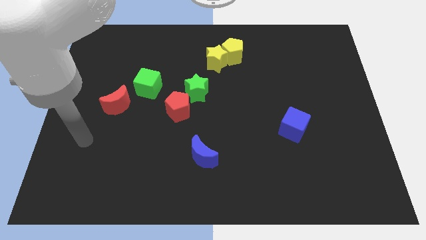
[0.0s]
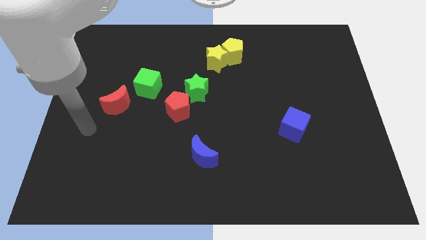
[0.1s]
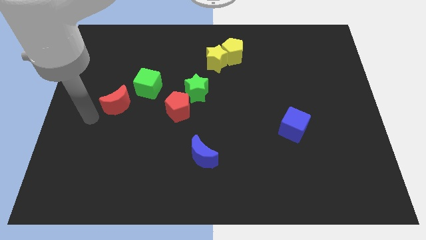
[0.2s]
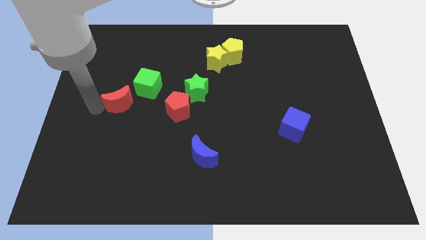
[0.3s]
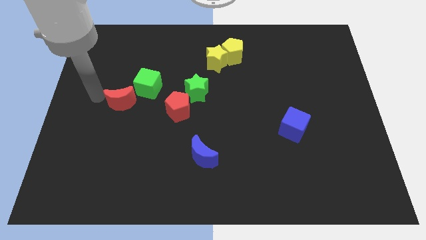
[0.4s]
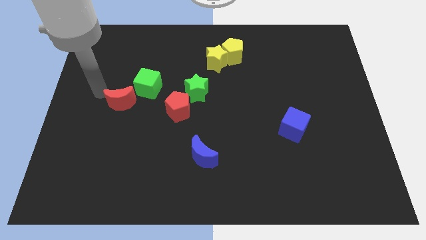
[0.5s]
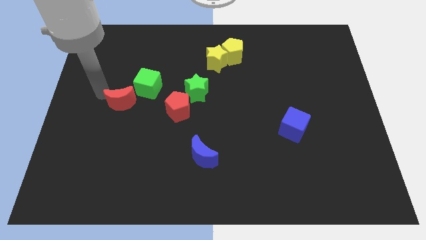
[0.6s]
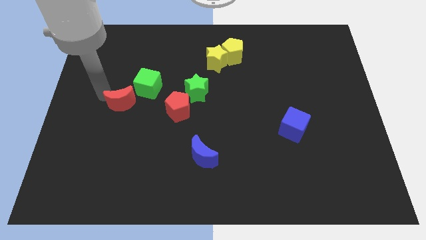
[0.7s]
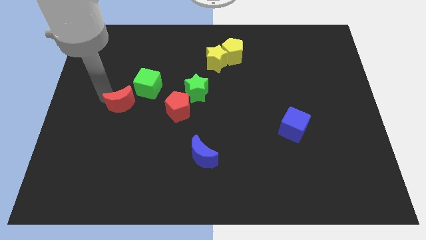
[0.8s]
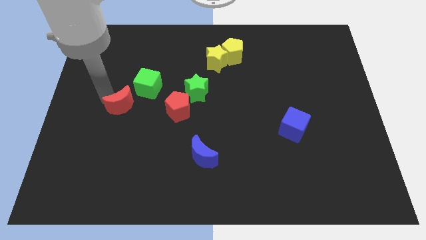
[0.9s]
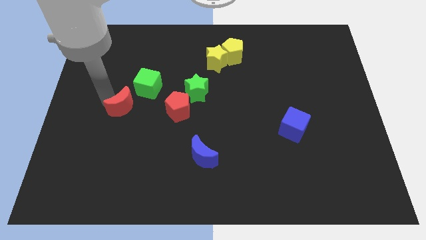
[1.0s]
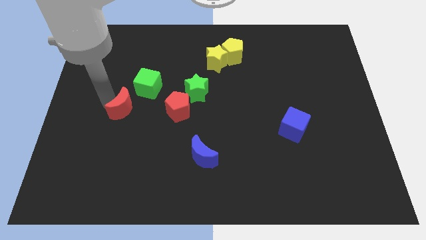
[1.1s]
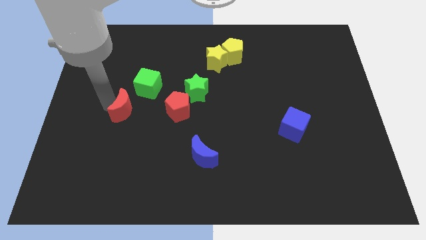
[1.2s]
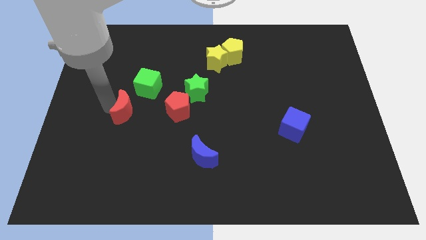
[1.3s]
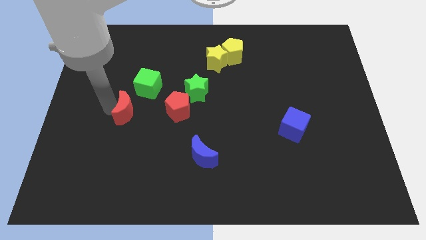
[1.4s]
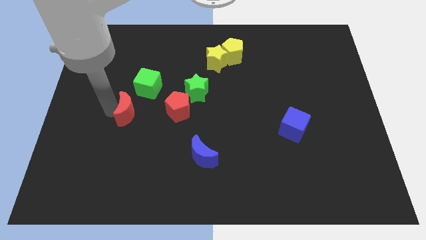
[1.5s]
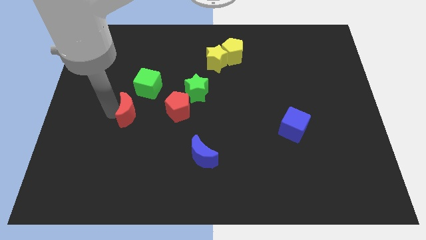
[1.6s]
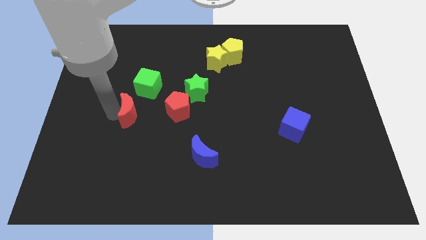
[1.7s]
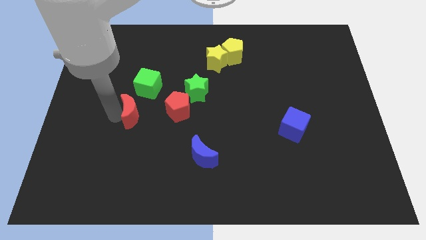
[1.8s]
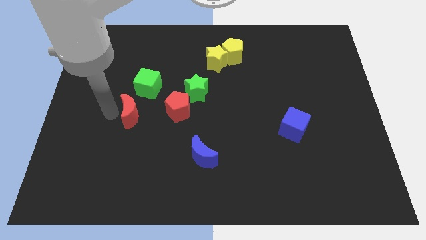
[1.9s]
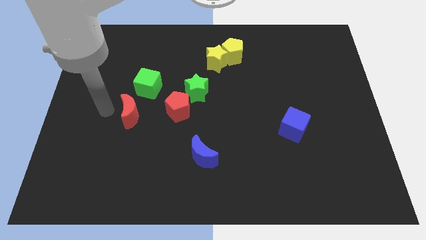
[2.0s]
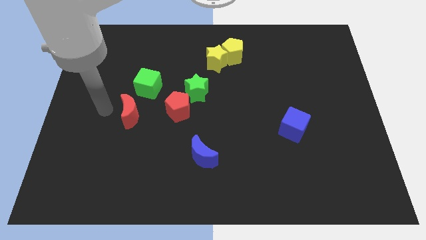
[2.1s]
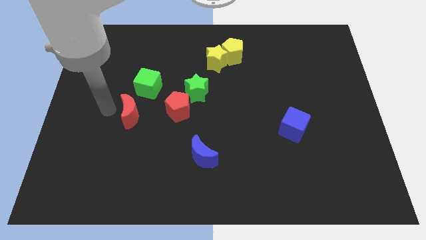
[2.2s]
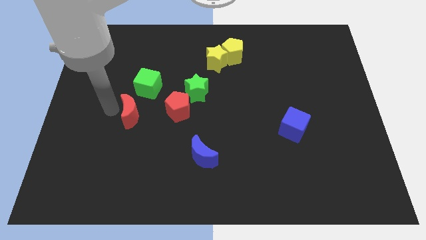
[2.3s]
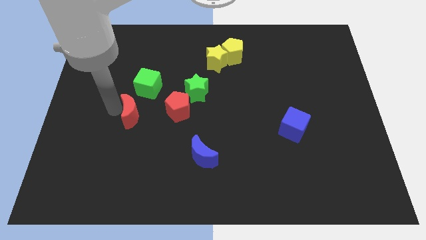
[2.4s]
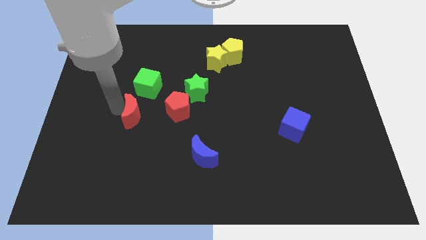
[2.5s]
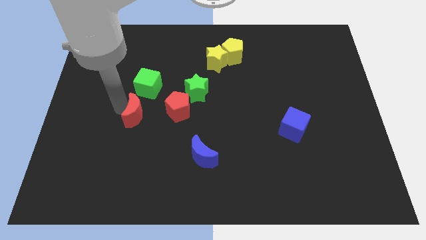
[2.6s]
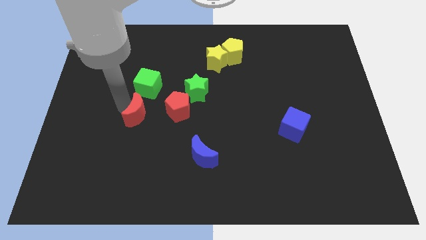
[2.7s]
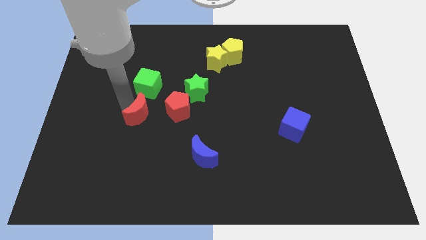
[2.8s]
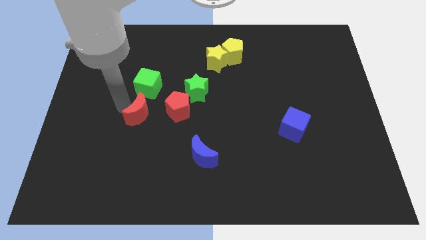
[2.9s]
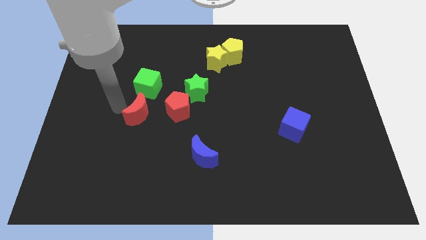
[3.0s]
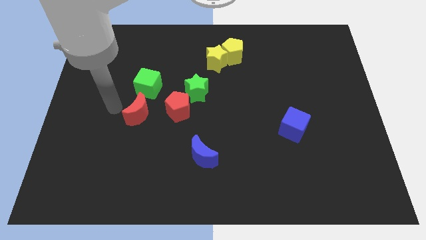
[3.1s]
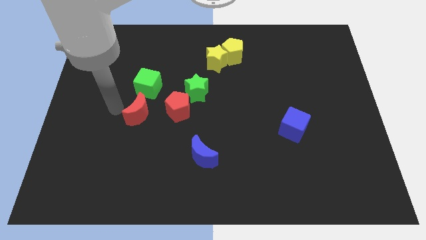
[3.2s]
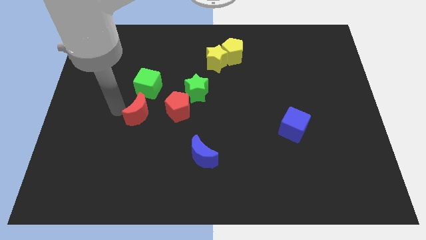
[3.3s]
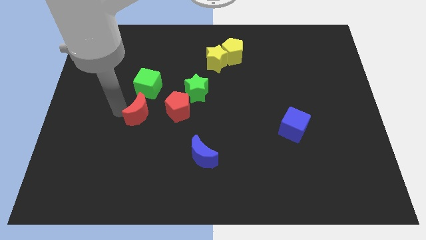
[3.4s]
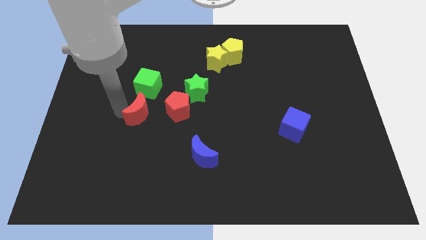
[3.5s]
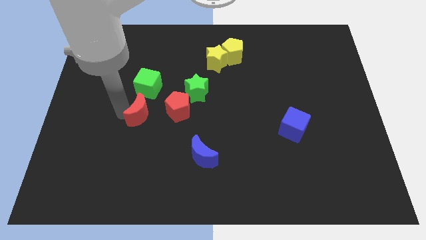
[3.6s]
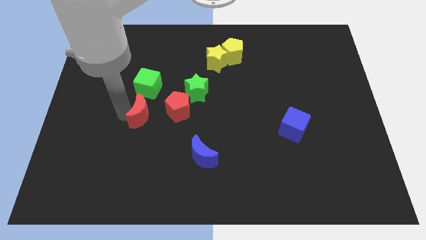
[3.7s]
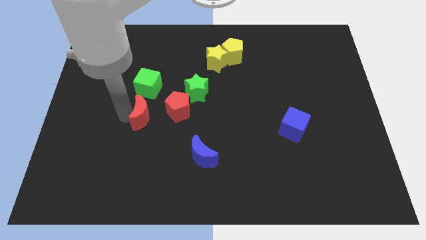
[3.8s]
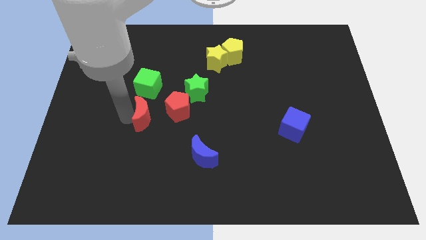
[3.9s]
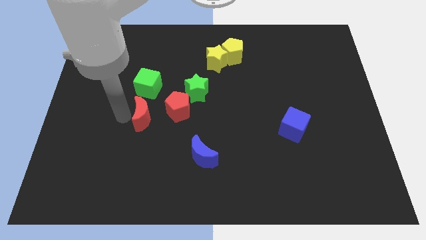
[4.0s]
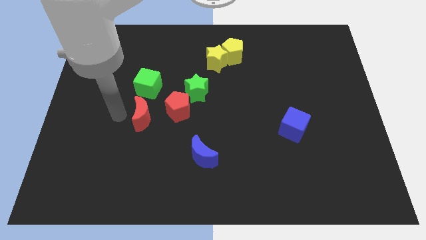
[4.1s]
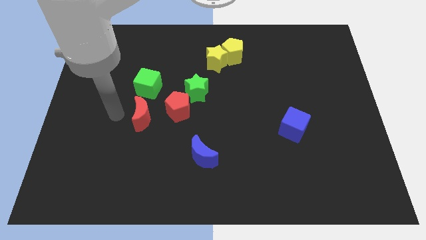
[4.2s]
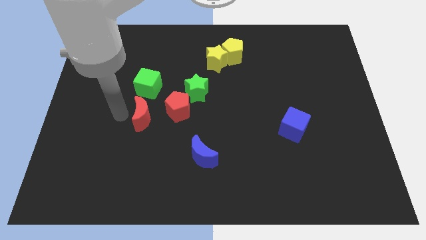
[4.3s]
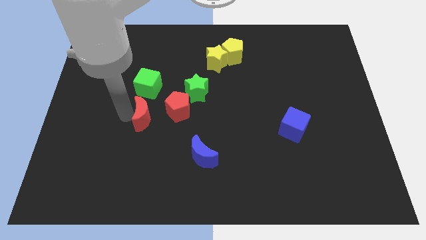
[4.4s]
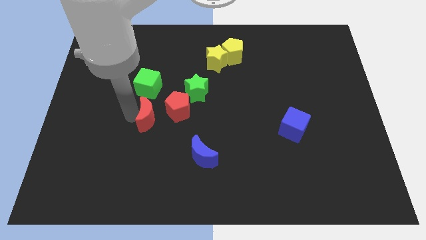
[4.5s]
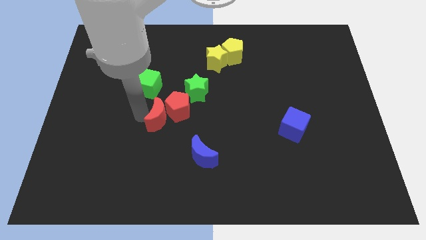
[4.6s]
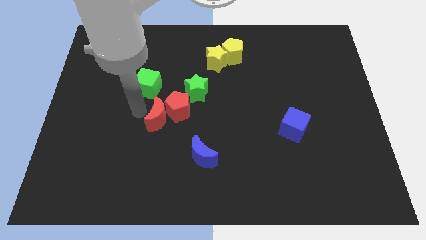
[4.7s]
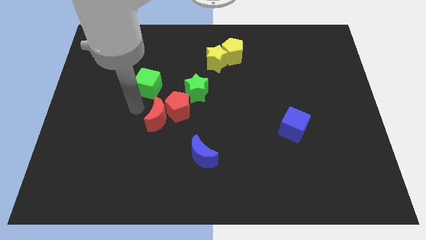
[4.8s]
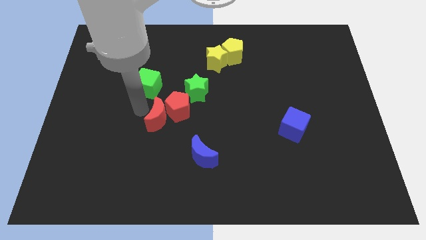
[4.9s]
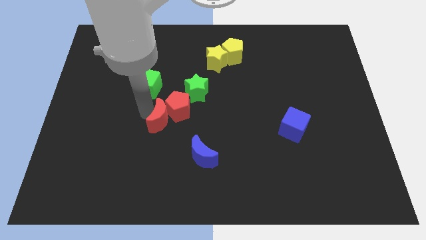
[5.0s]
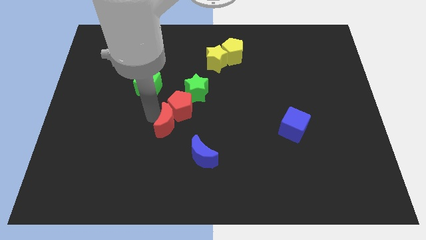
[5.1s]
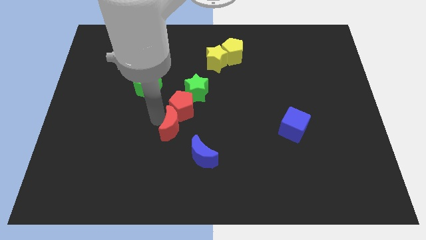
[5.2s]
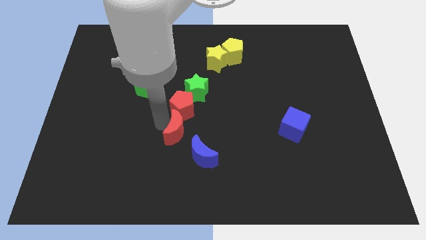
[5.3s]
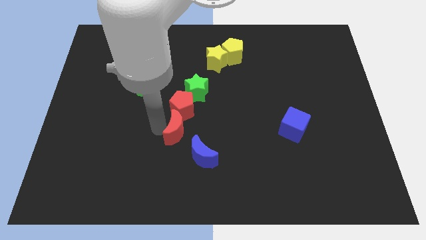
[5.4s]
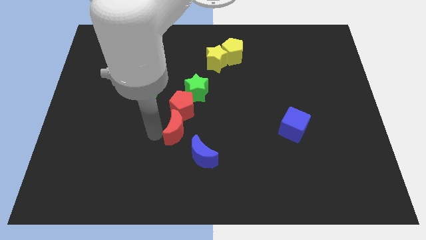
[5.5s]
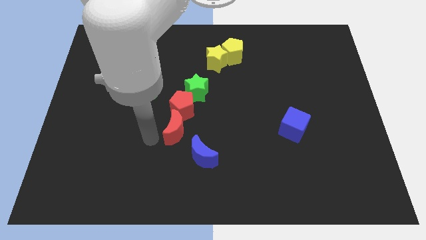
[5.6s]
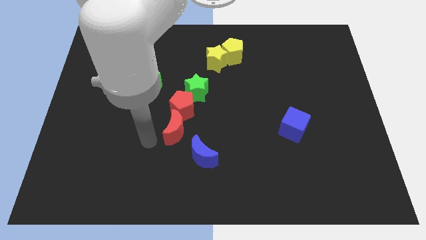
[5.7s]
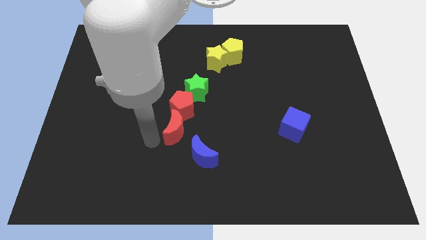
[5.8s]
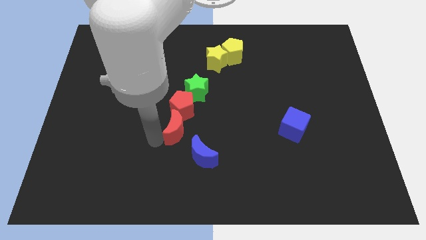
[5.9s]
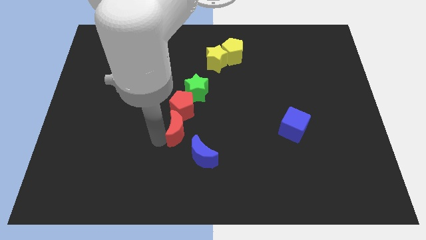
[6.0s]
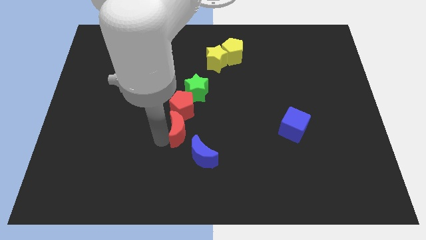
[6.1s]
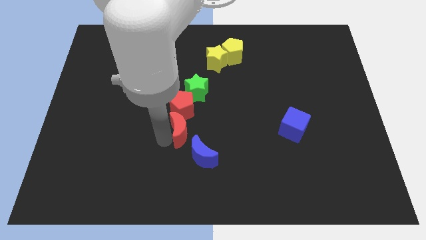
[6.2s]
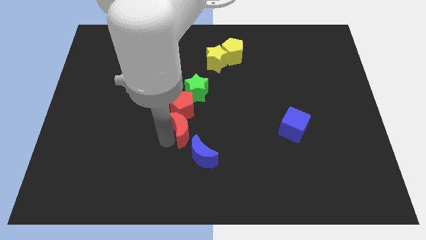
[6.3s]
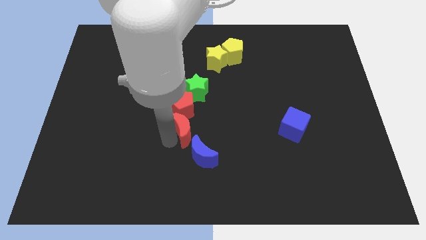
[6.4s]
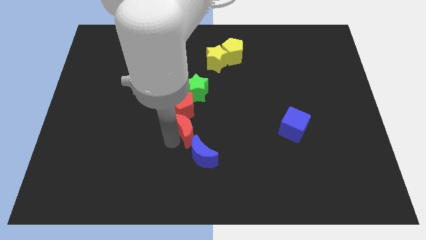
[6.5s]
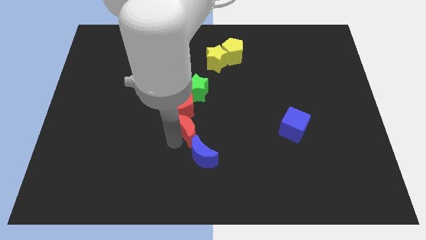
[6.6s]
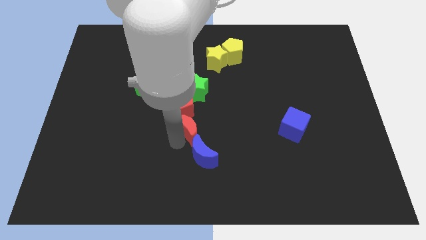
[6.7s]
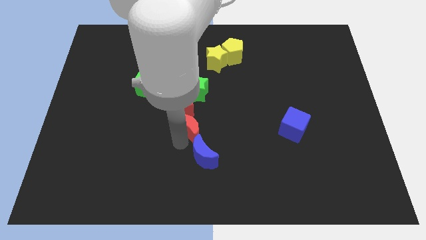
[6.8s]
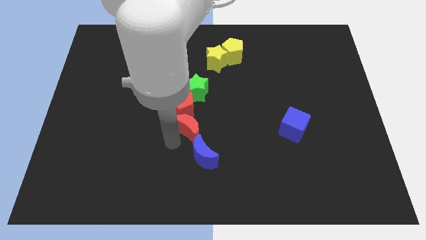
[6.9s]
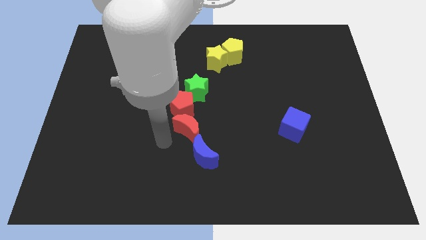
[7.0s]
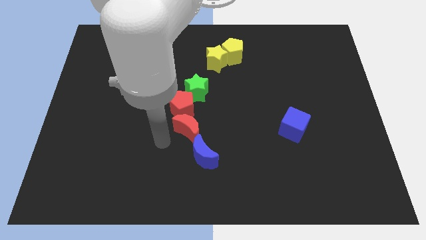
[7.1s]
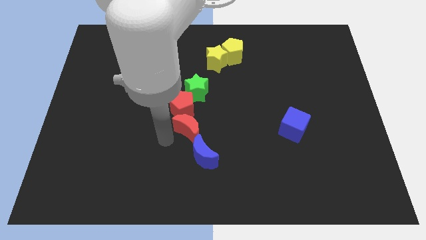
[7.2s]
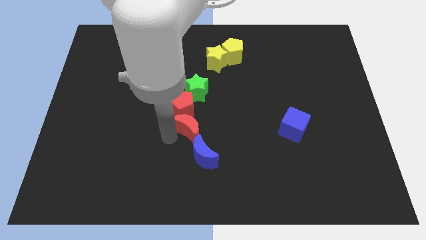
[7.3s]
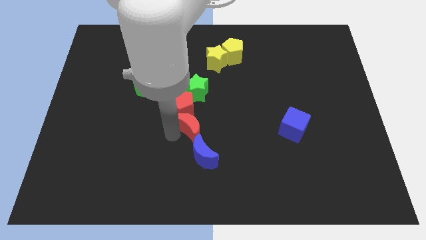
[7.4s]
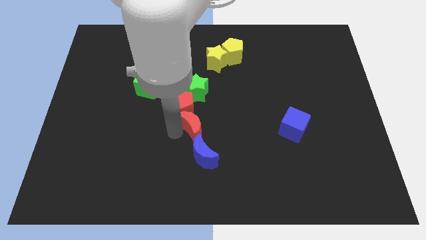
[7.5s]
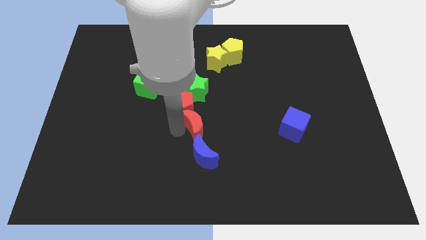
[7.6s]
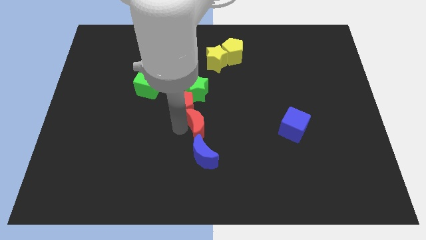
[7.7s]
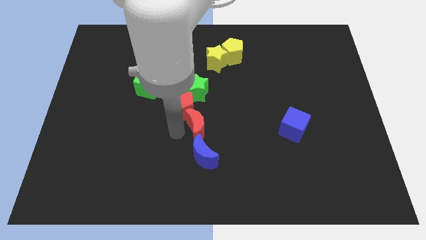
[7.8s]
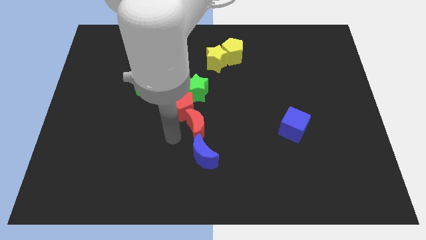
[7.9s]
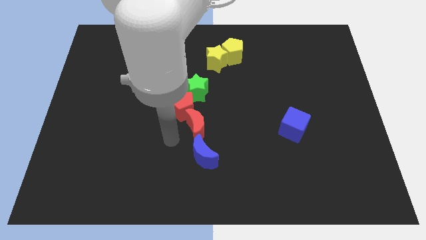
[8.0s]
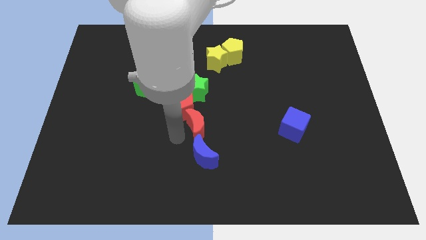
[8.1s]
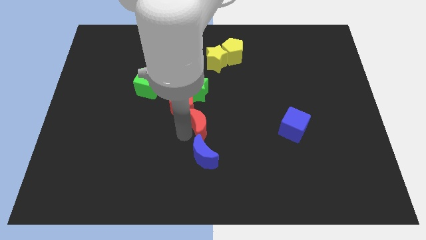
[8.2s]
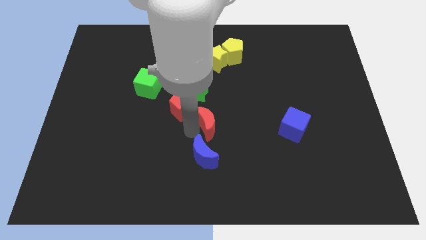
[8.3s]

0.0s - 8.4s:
slide the red moon right
